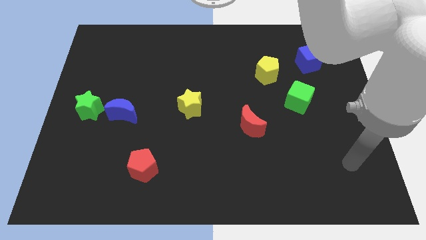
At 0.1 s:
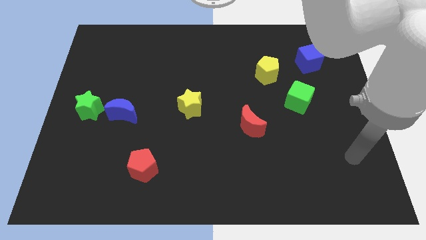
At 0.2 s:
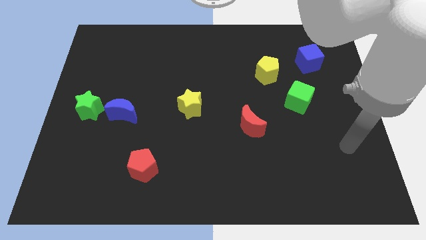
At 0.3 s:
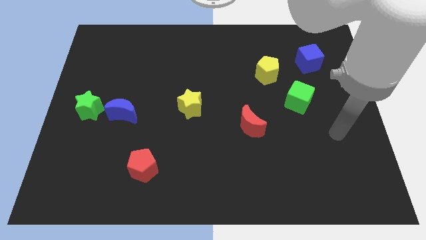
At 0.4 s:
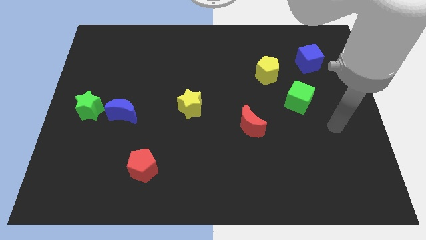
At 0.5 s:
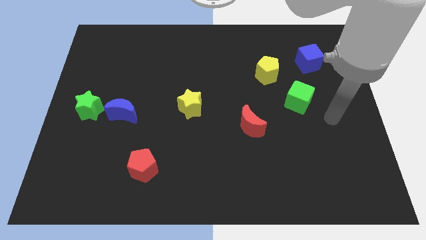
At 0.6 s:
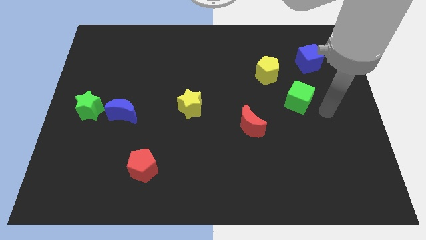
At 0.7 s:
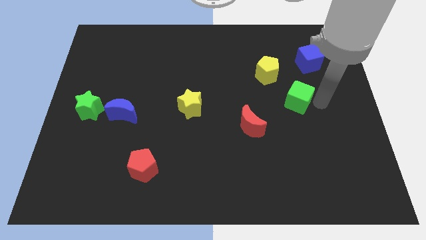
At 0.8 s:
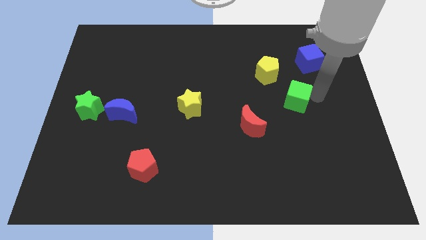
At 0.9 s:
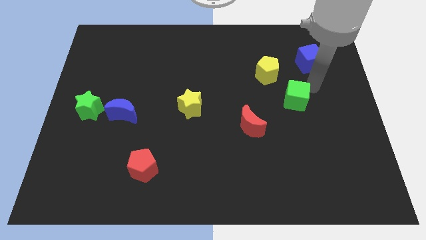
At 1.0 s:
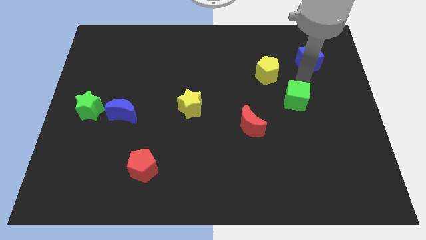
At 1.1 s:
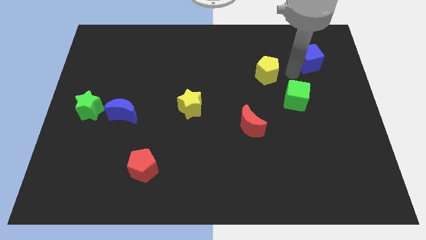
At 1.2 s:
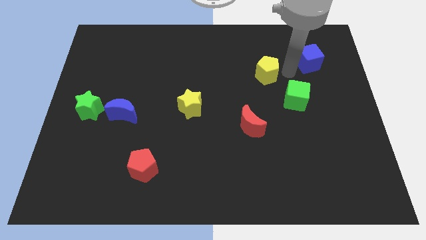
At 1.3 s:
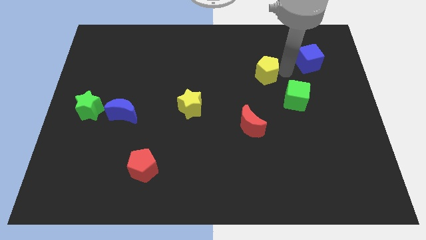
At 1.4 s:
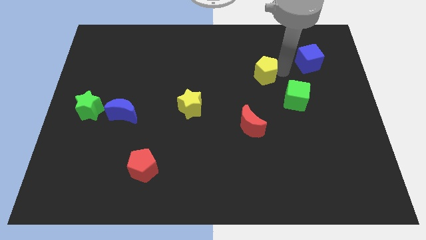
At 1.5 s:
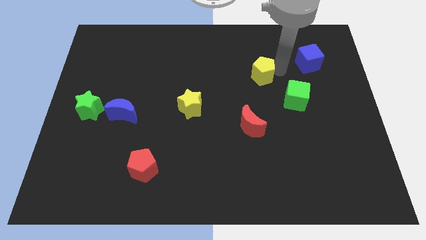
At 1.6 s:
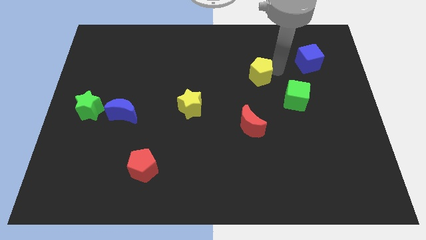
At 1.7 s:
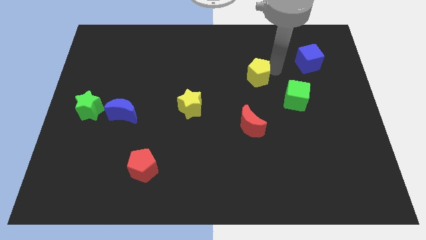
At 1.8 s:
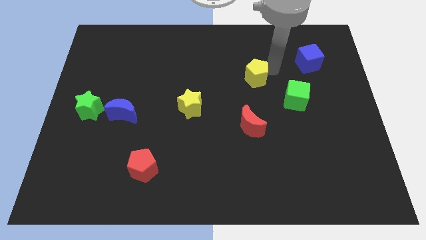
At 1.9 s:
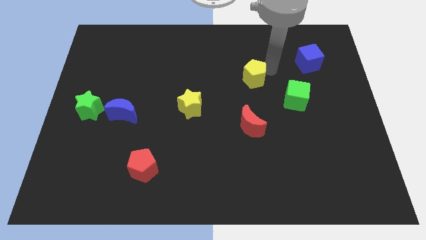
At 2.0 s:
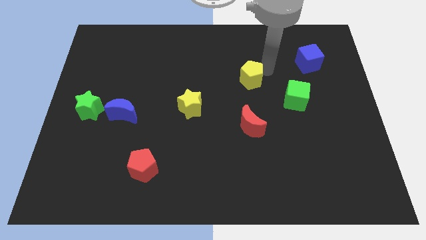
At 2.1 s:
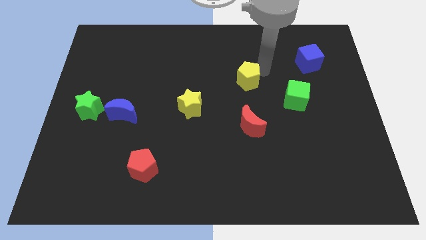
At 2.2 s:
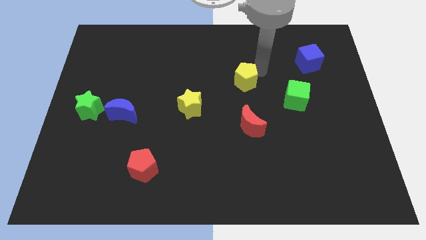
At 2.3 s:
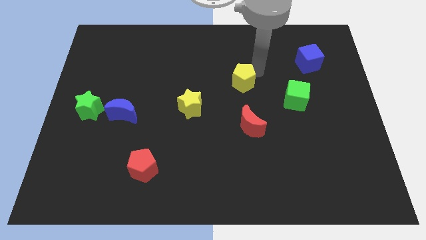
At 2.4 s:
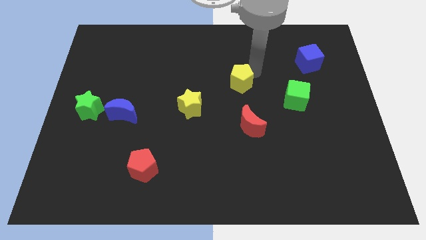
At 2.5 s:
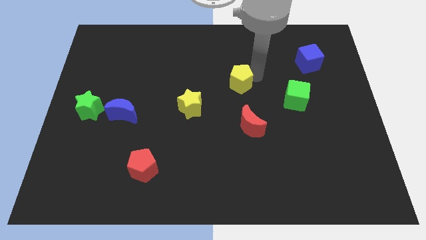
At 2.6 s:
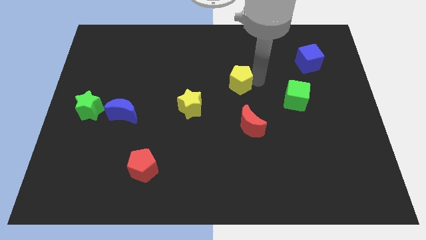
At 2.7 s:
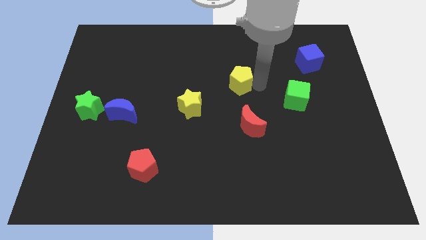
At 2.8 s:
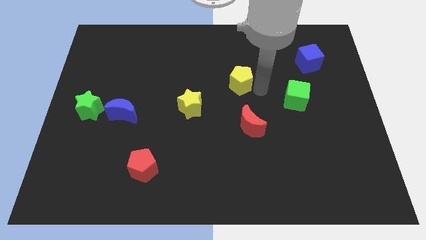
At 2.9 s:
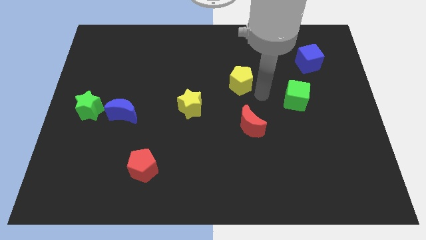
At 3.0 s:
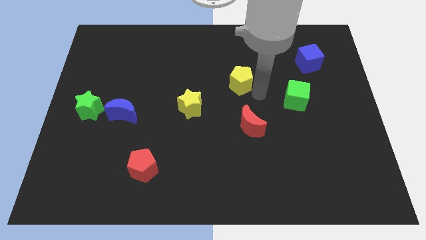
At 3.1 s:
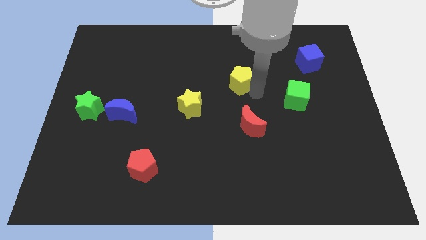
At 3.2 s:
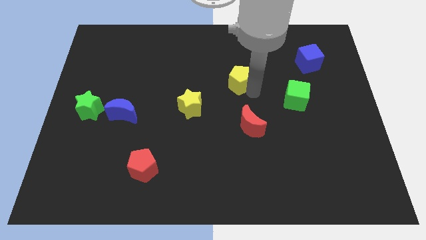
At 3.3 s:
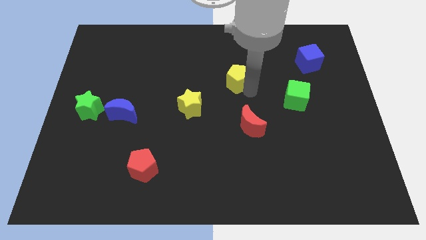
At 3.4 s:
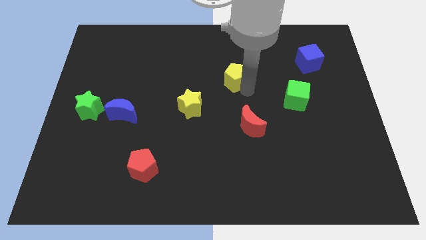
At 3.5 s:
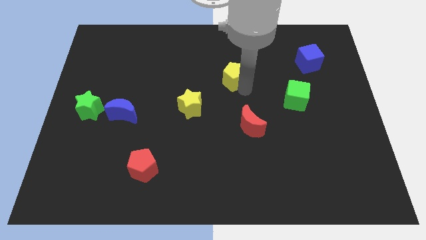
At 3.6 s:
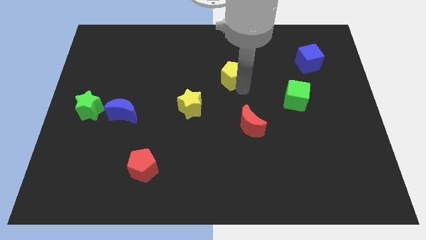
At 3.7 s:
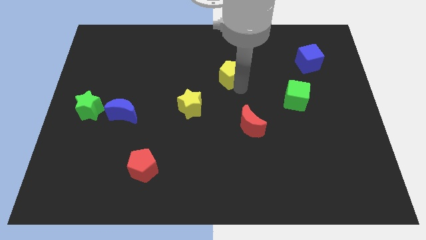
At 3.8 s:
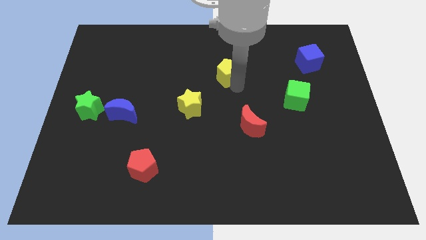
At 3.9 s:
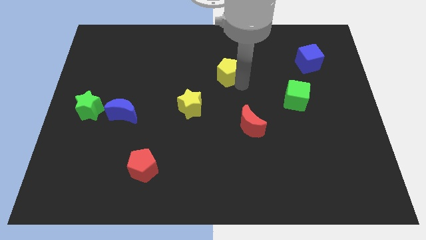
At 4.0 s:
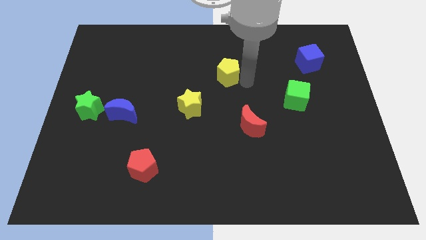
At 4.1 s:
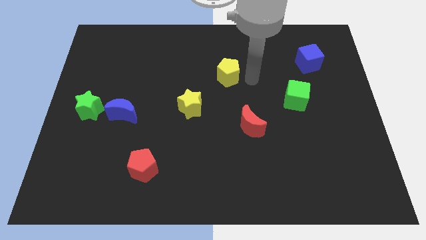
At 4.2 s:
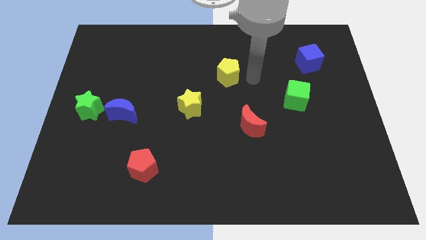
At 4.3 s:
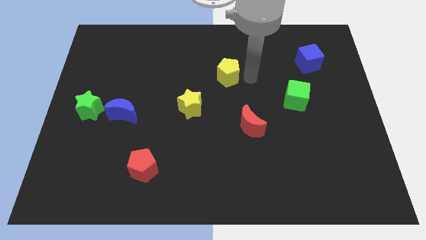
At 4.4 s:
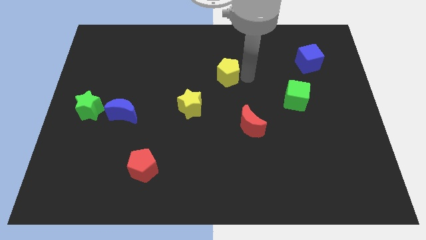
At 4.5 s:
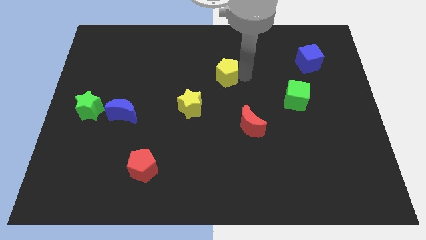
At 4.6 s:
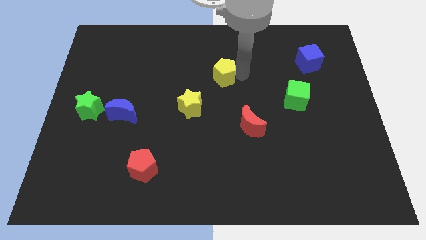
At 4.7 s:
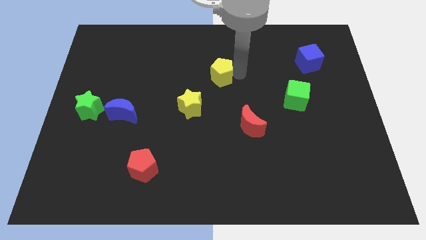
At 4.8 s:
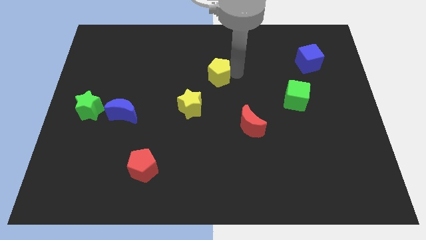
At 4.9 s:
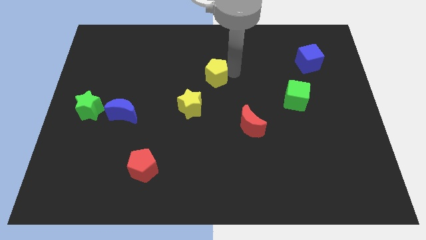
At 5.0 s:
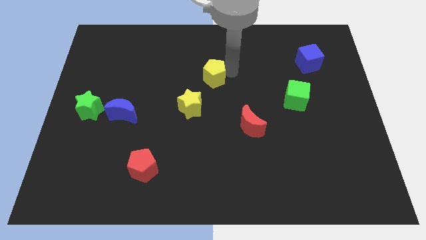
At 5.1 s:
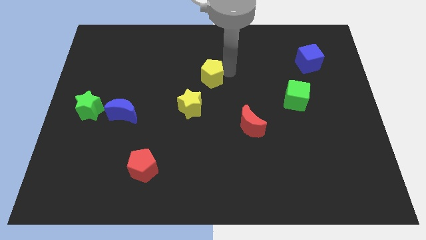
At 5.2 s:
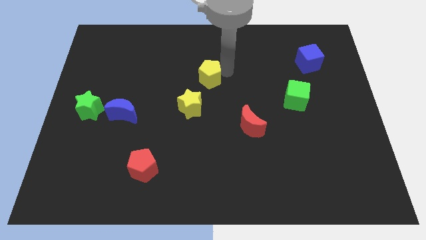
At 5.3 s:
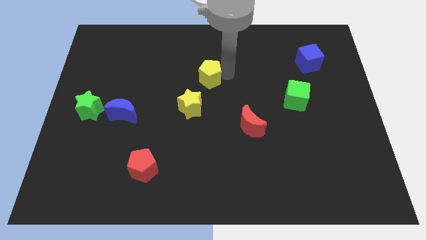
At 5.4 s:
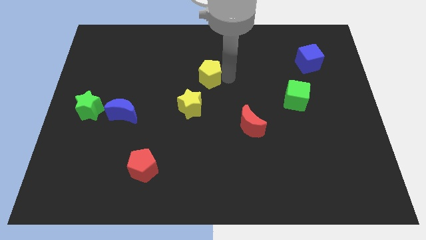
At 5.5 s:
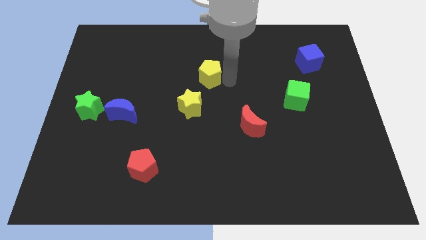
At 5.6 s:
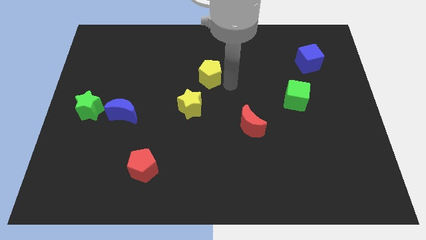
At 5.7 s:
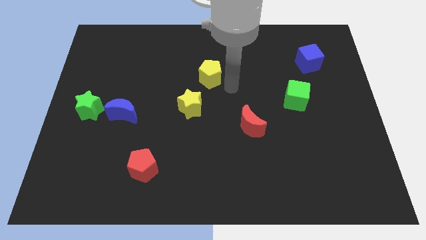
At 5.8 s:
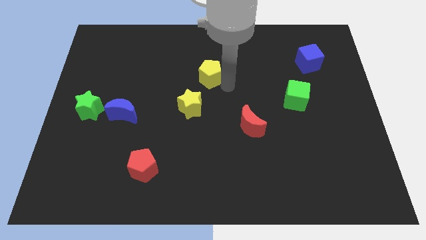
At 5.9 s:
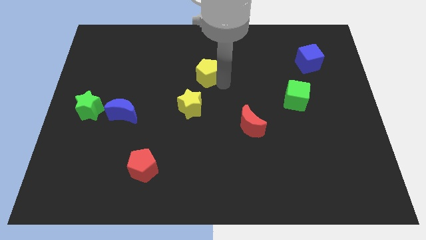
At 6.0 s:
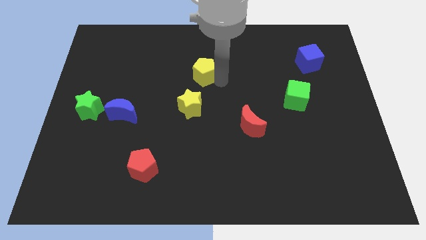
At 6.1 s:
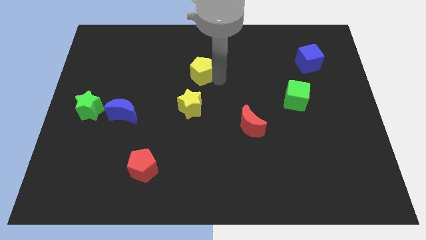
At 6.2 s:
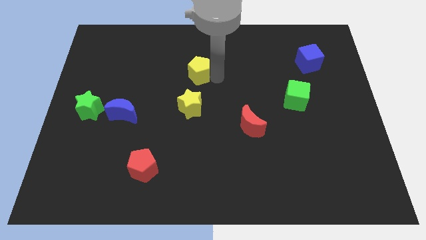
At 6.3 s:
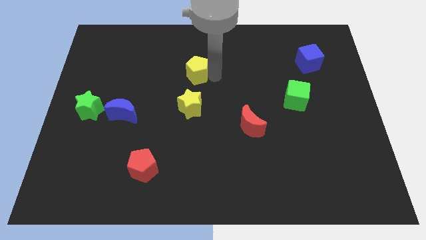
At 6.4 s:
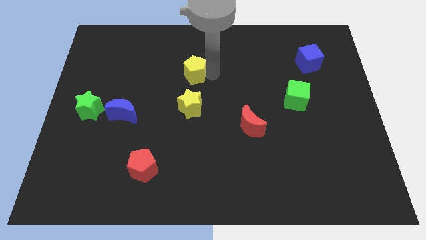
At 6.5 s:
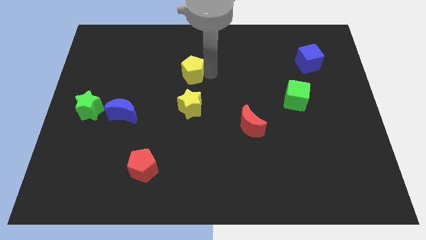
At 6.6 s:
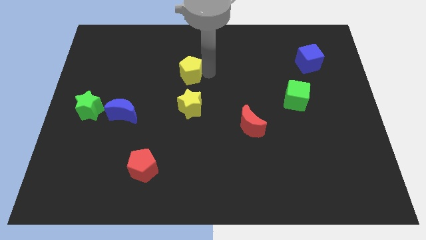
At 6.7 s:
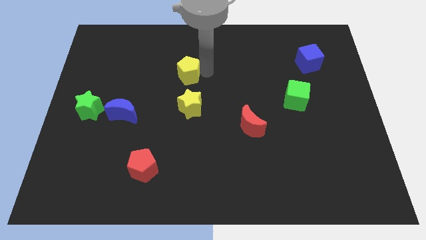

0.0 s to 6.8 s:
slide the yellow pentagon left

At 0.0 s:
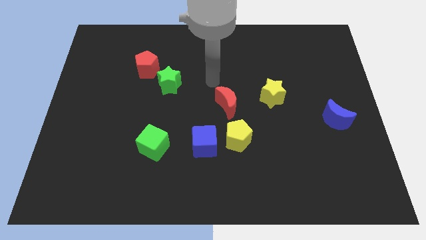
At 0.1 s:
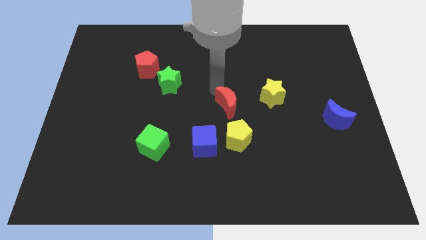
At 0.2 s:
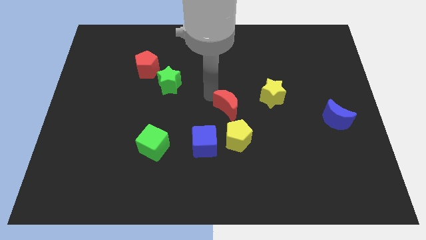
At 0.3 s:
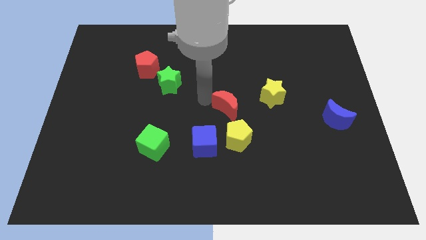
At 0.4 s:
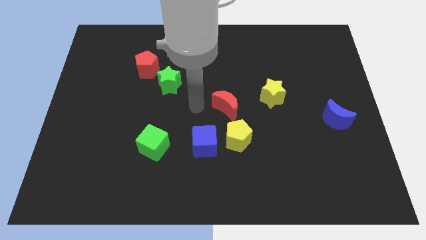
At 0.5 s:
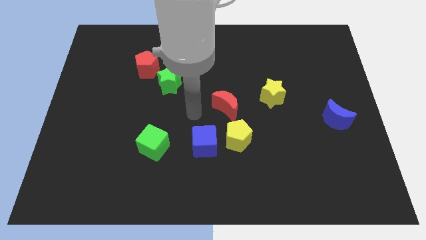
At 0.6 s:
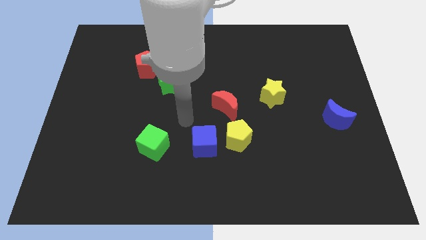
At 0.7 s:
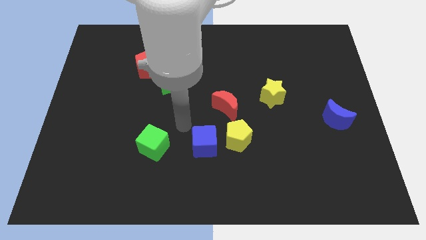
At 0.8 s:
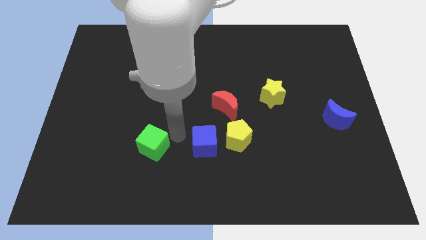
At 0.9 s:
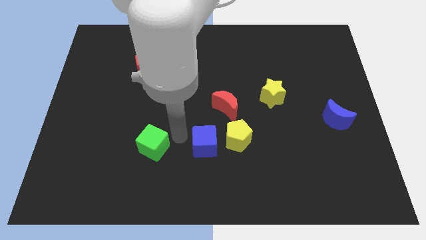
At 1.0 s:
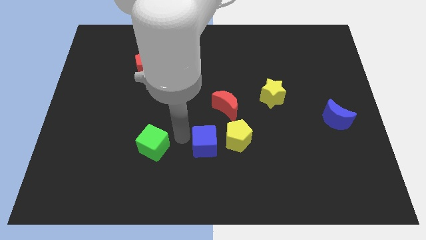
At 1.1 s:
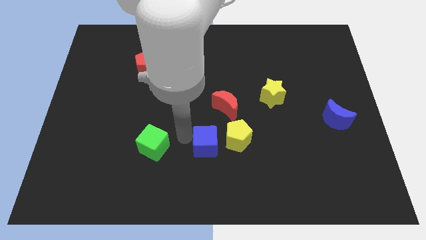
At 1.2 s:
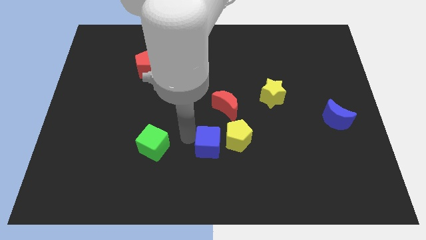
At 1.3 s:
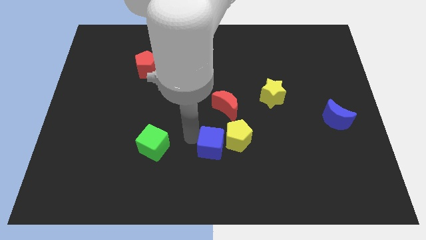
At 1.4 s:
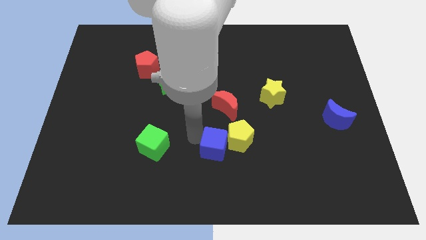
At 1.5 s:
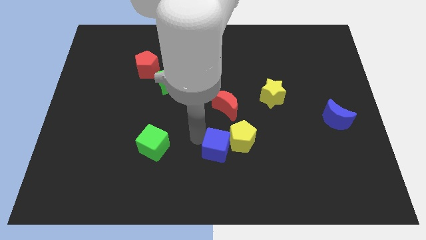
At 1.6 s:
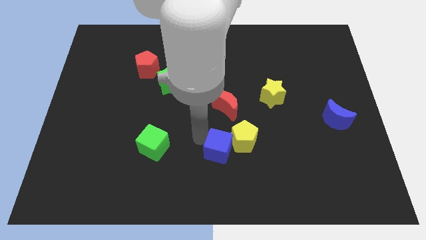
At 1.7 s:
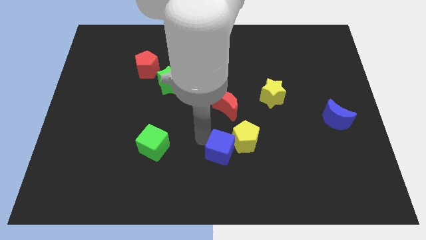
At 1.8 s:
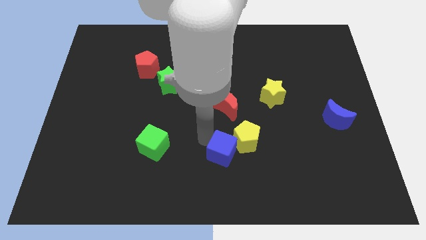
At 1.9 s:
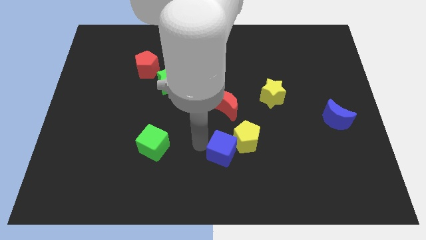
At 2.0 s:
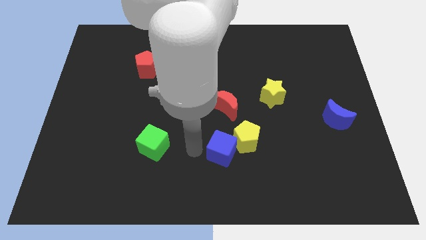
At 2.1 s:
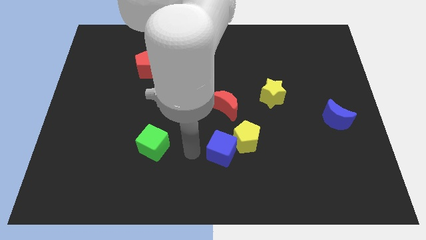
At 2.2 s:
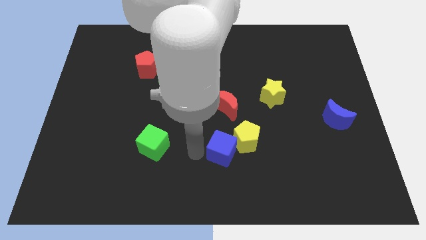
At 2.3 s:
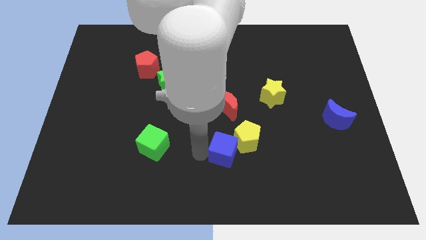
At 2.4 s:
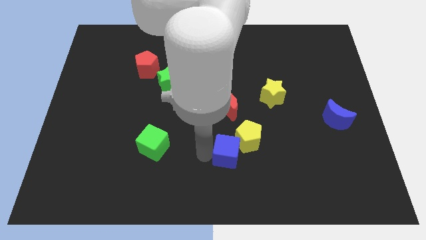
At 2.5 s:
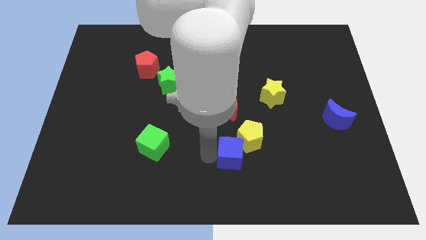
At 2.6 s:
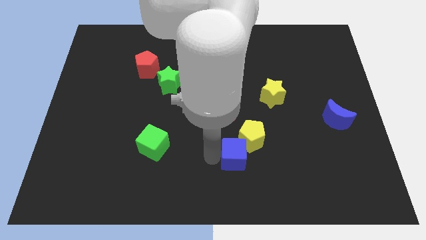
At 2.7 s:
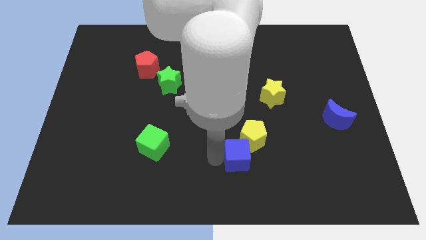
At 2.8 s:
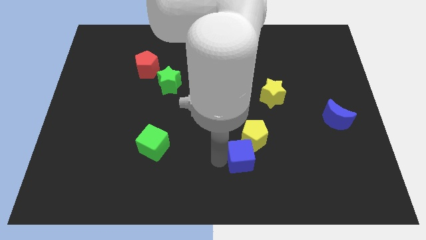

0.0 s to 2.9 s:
move the blue cube right a bit
